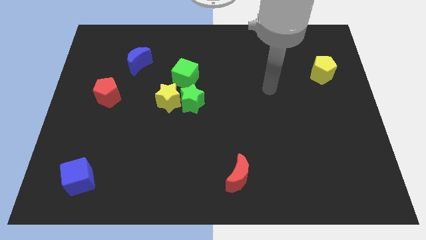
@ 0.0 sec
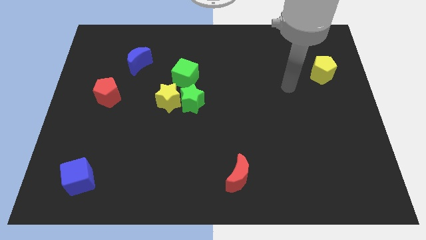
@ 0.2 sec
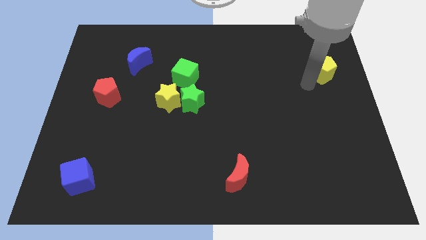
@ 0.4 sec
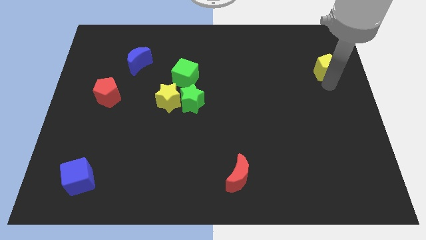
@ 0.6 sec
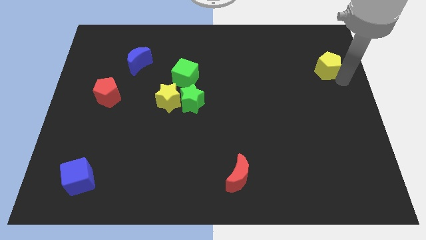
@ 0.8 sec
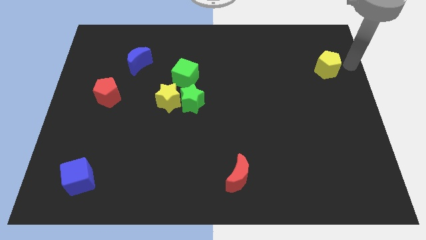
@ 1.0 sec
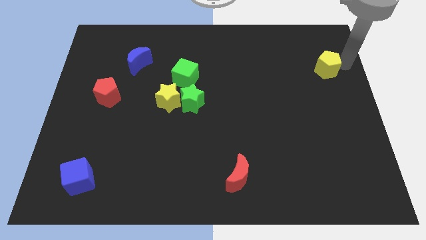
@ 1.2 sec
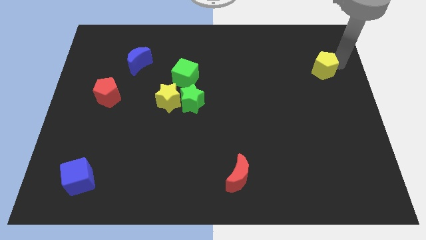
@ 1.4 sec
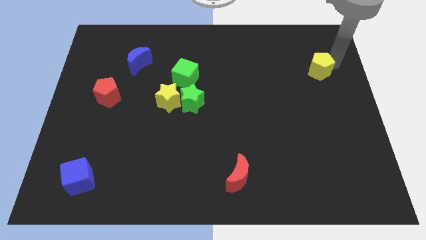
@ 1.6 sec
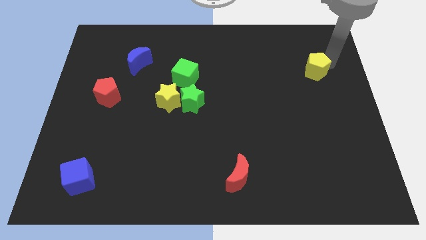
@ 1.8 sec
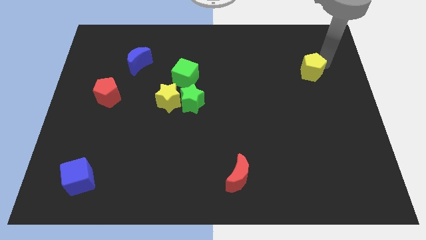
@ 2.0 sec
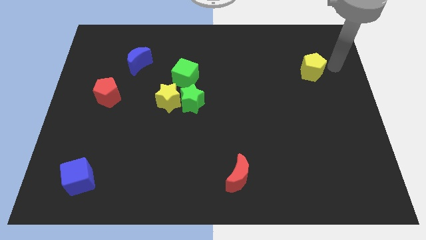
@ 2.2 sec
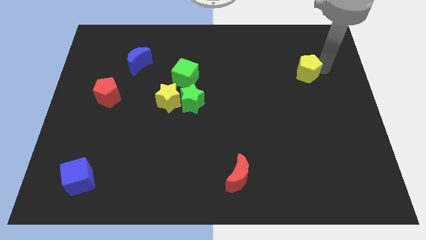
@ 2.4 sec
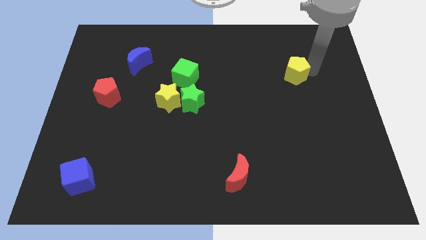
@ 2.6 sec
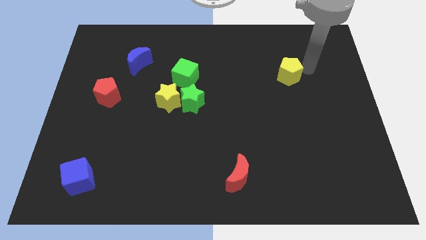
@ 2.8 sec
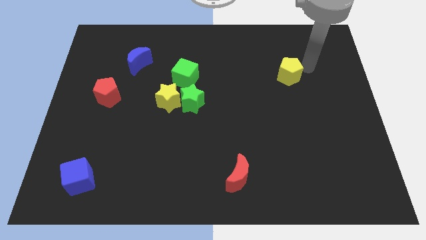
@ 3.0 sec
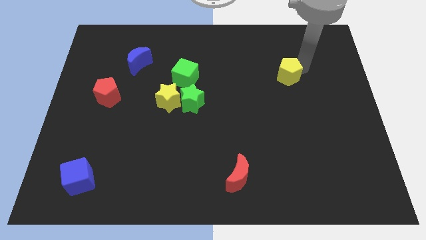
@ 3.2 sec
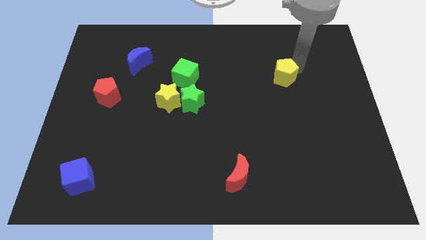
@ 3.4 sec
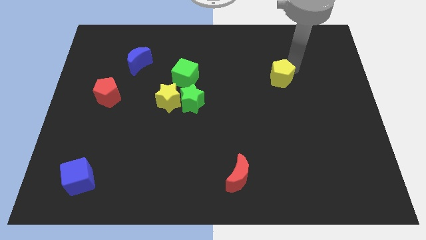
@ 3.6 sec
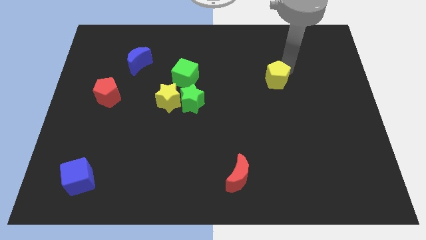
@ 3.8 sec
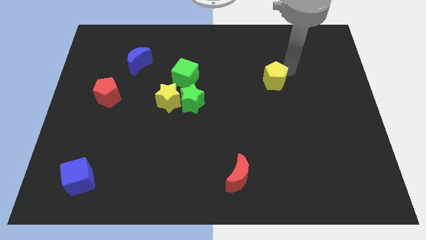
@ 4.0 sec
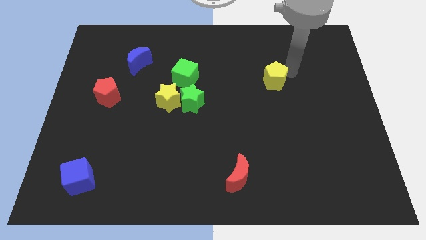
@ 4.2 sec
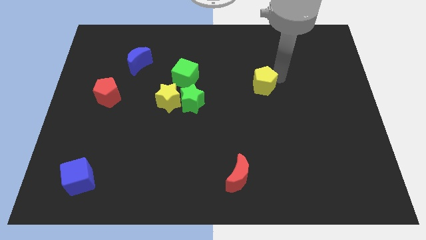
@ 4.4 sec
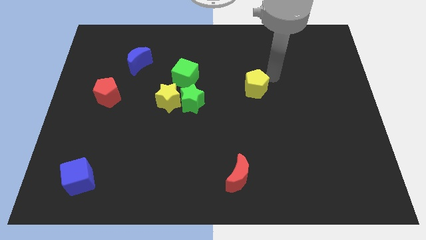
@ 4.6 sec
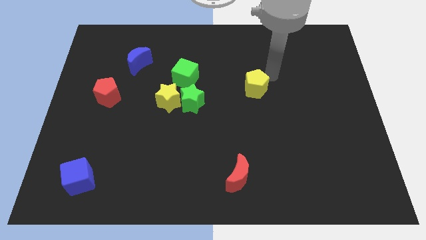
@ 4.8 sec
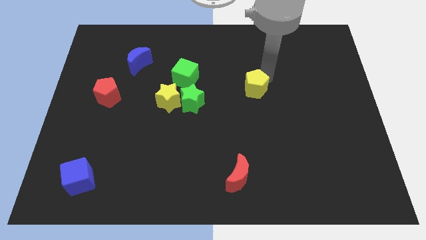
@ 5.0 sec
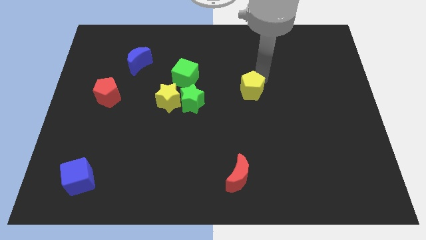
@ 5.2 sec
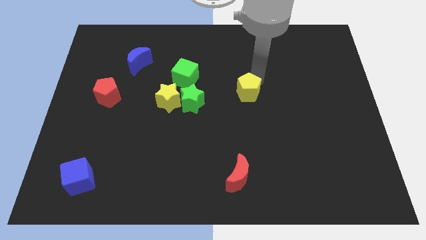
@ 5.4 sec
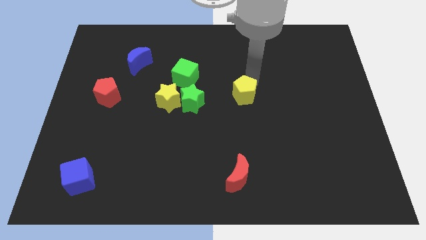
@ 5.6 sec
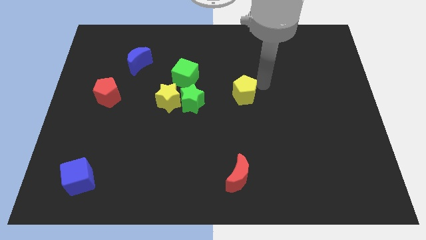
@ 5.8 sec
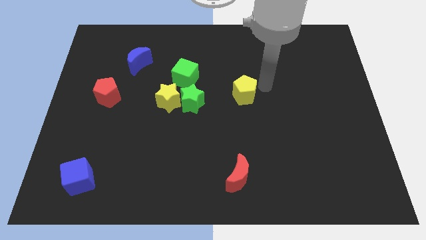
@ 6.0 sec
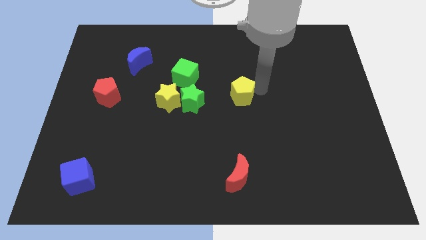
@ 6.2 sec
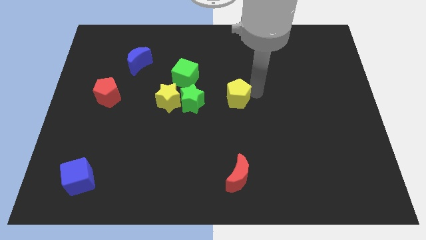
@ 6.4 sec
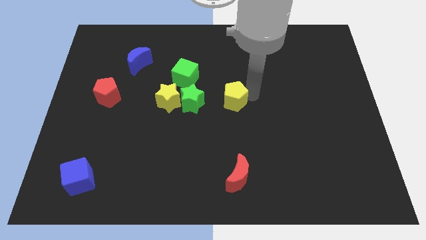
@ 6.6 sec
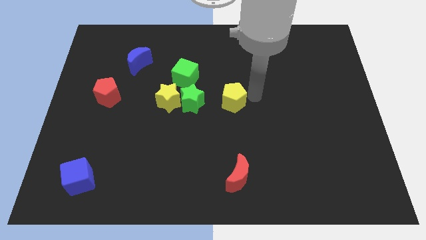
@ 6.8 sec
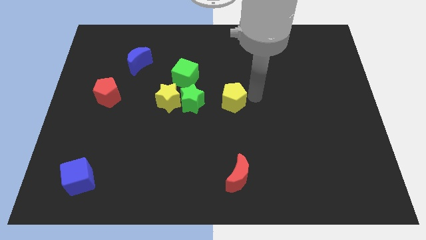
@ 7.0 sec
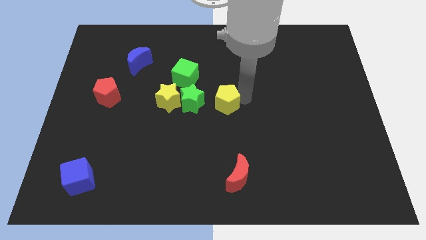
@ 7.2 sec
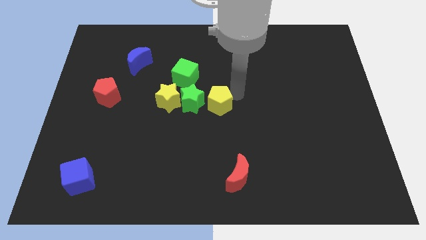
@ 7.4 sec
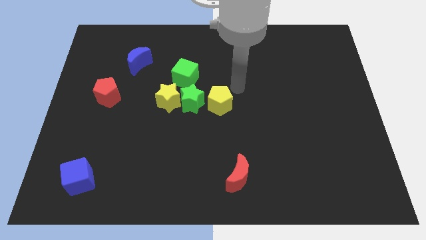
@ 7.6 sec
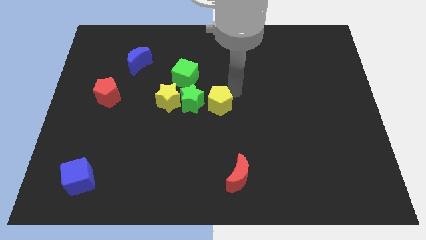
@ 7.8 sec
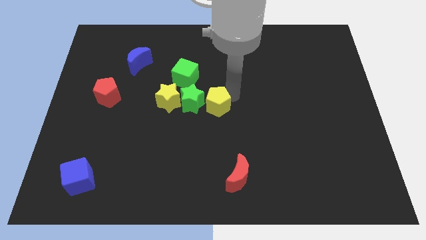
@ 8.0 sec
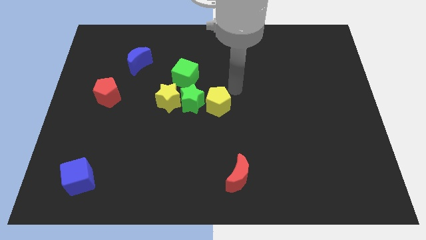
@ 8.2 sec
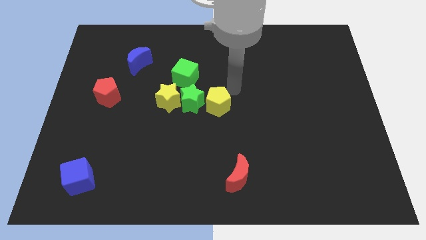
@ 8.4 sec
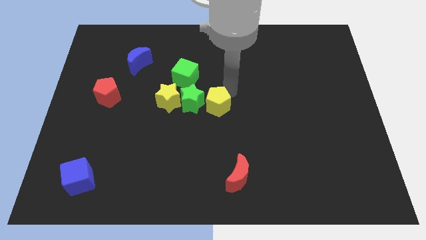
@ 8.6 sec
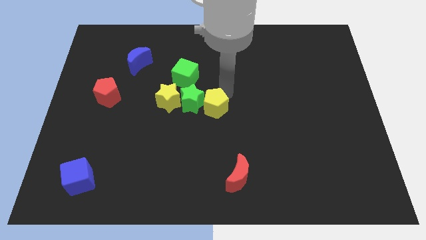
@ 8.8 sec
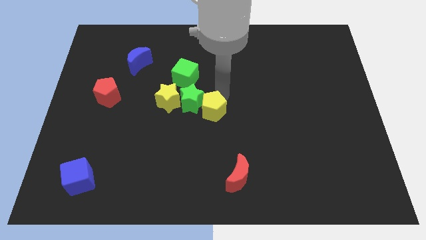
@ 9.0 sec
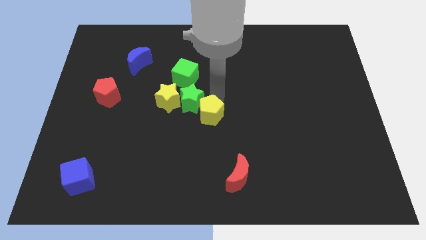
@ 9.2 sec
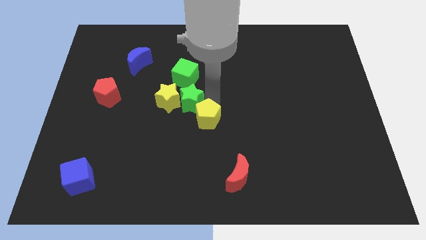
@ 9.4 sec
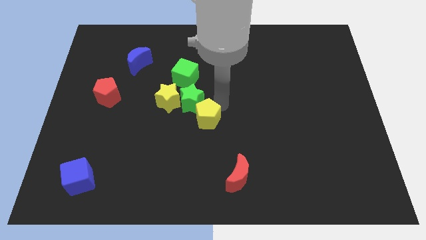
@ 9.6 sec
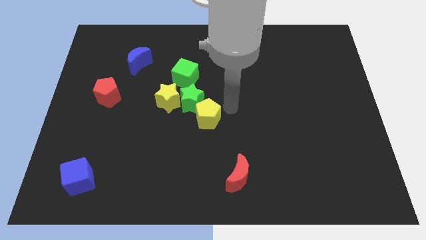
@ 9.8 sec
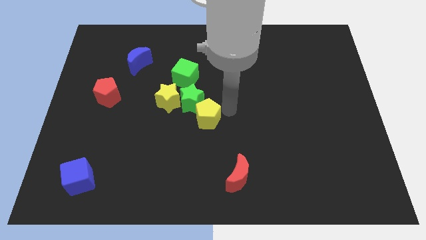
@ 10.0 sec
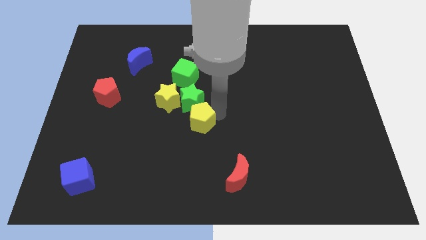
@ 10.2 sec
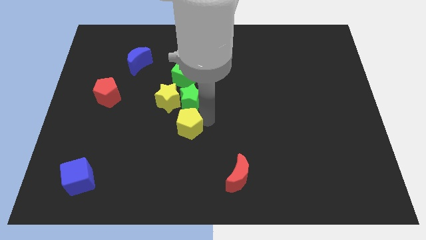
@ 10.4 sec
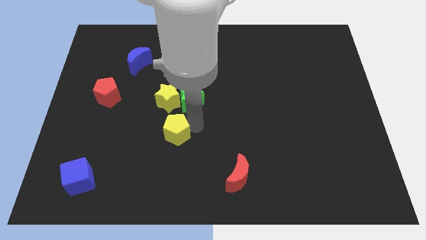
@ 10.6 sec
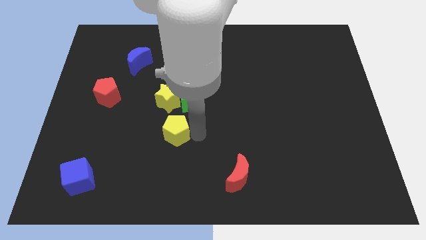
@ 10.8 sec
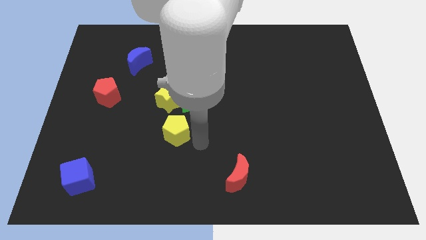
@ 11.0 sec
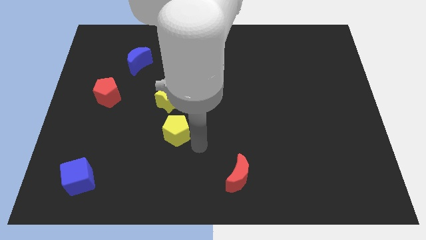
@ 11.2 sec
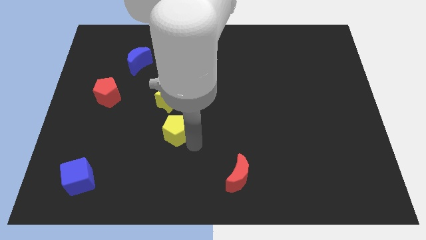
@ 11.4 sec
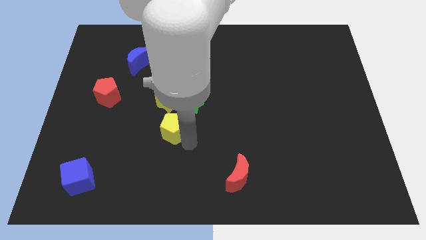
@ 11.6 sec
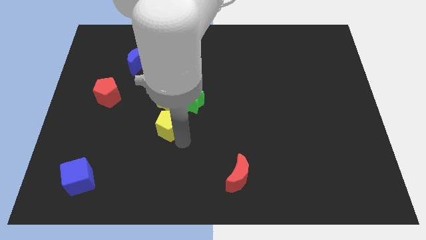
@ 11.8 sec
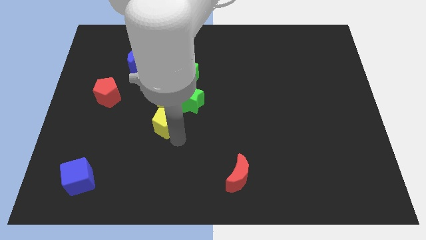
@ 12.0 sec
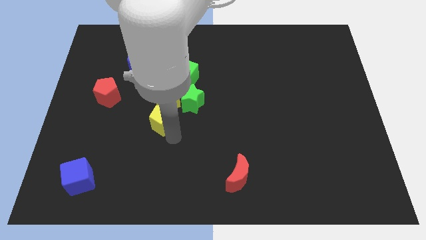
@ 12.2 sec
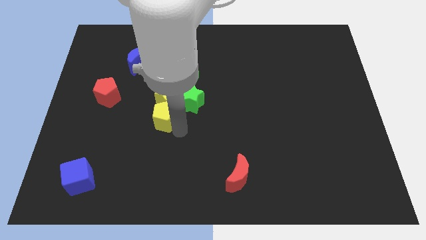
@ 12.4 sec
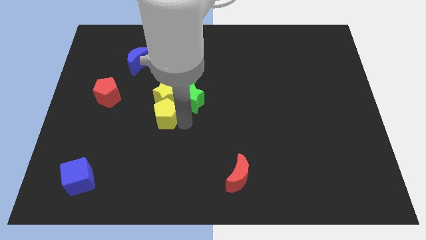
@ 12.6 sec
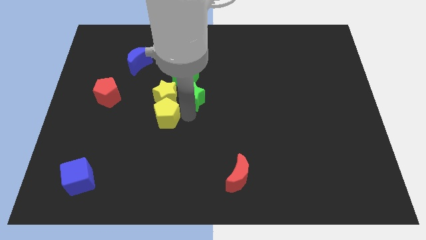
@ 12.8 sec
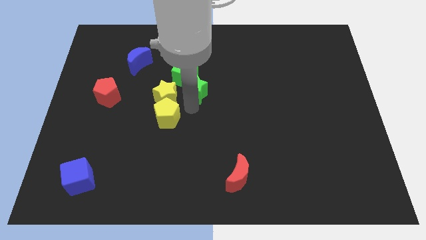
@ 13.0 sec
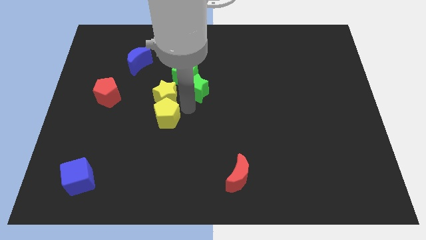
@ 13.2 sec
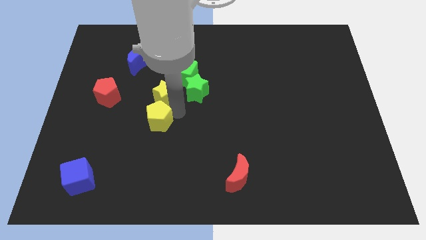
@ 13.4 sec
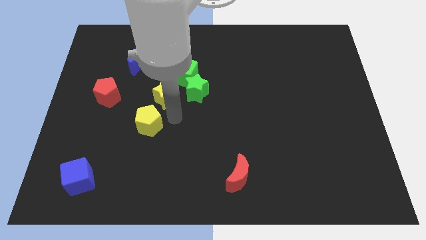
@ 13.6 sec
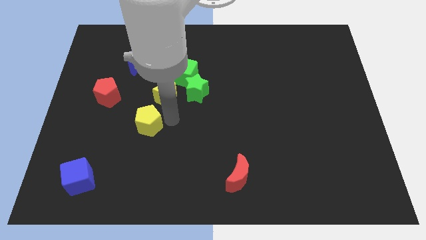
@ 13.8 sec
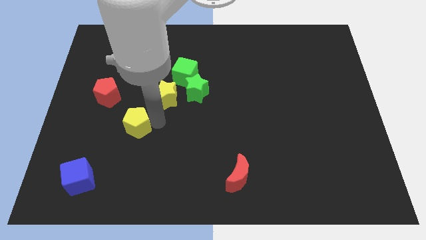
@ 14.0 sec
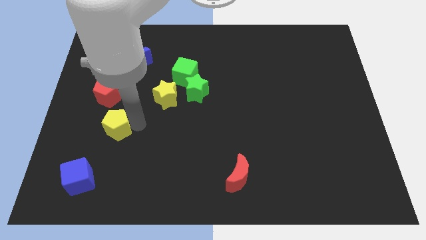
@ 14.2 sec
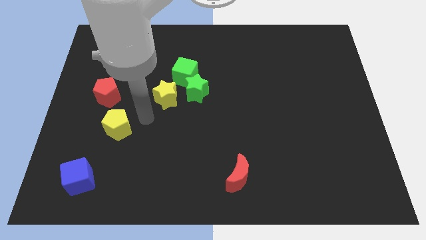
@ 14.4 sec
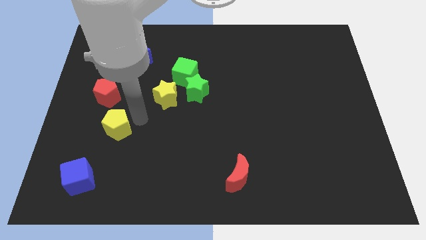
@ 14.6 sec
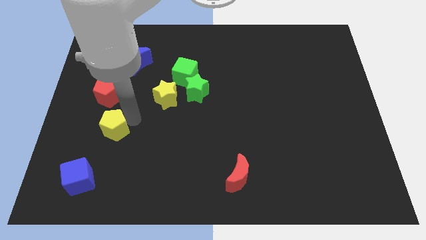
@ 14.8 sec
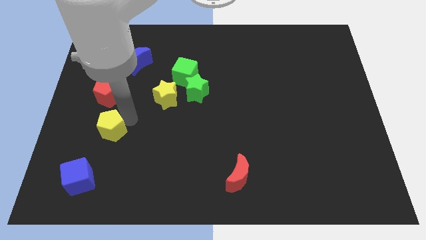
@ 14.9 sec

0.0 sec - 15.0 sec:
put the yellow pentagon above the blue cube

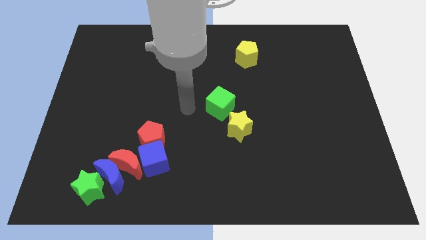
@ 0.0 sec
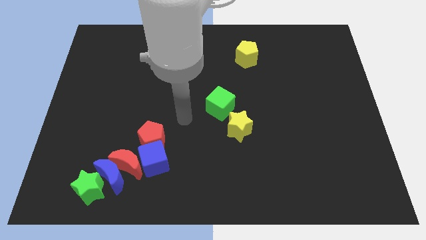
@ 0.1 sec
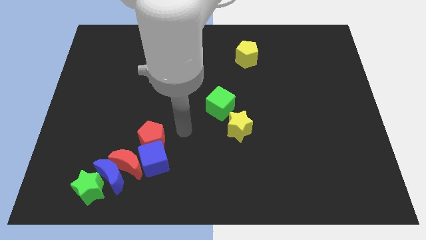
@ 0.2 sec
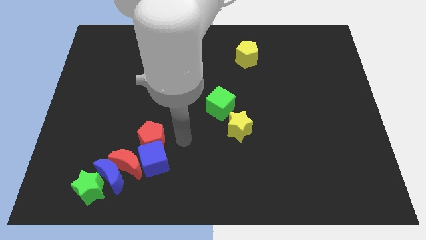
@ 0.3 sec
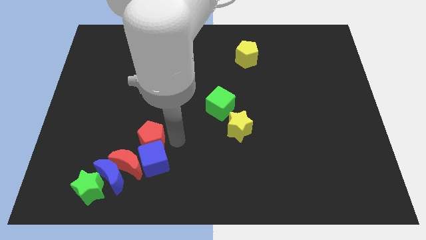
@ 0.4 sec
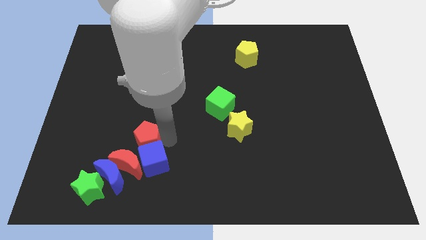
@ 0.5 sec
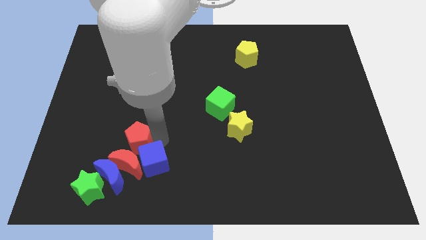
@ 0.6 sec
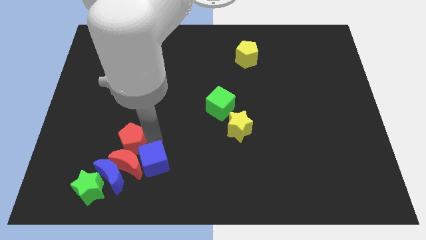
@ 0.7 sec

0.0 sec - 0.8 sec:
slide the red pentagon to the top left side of the red moon
